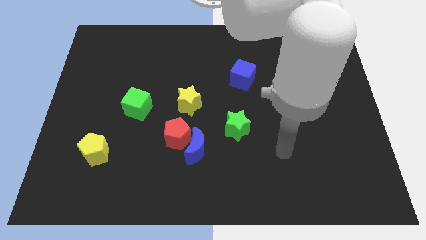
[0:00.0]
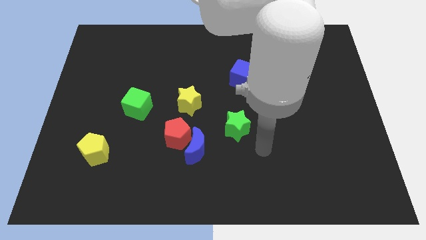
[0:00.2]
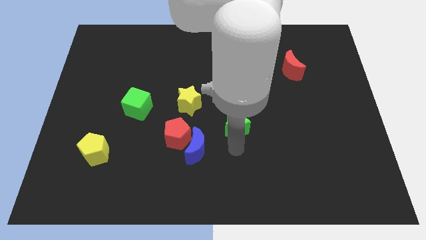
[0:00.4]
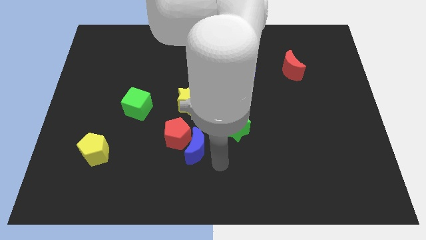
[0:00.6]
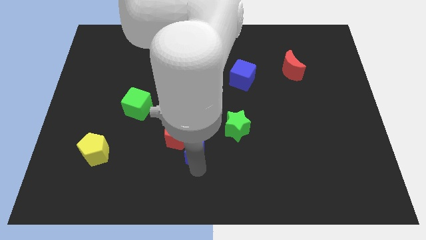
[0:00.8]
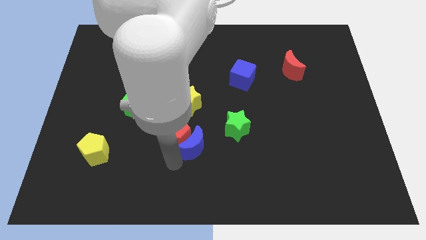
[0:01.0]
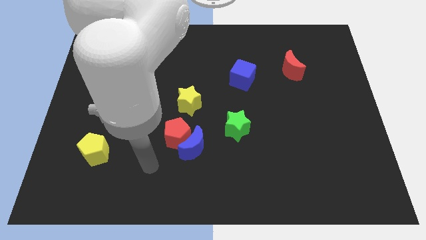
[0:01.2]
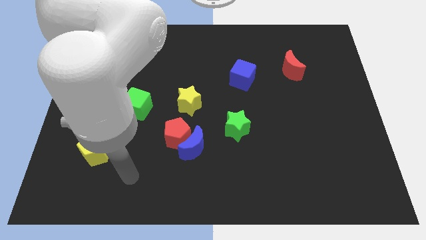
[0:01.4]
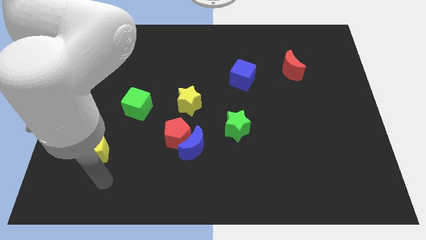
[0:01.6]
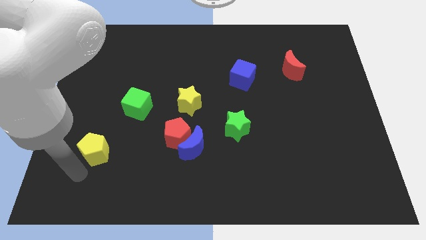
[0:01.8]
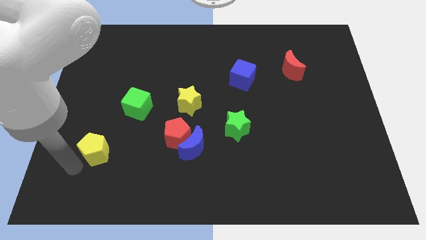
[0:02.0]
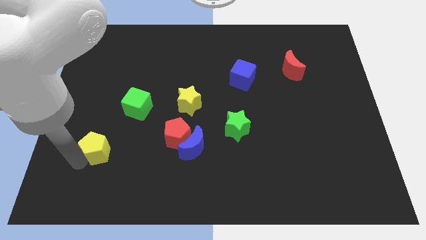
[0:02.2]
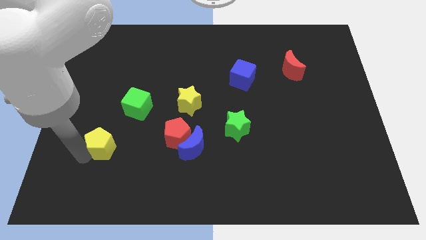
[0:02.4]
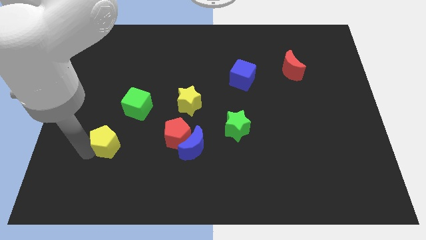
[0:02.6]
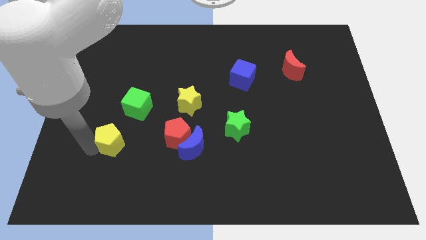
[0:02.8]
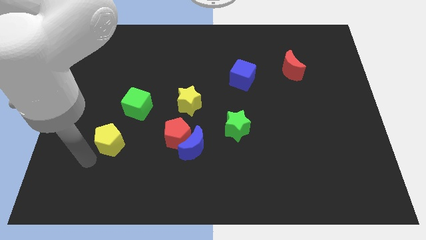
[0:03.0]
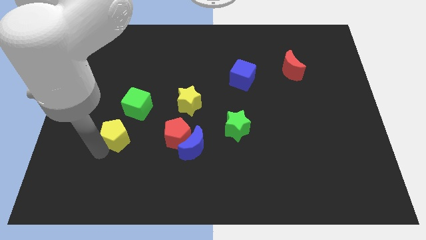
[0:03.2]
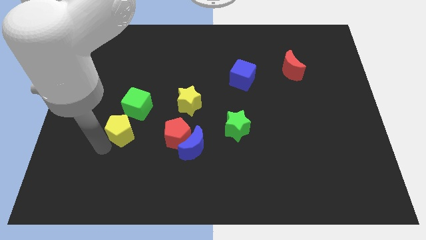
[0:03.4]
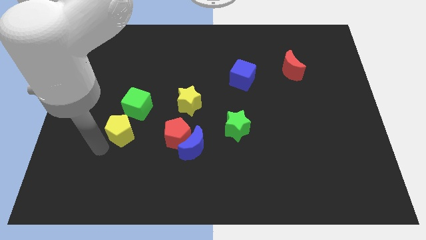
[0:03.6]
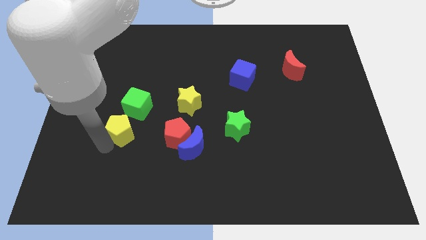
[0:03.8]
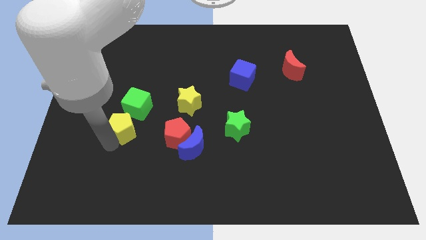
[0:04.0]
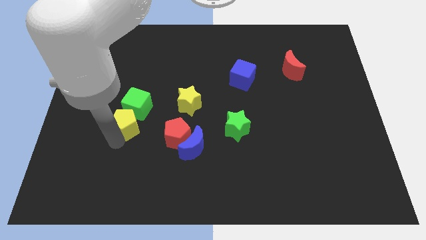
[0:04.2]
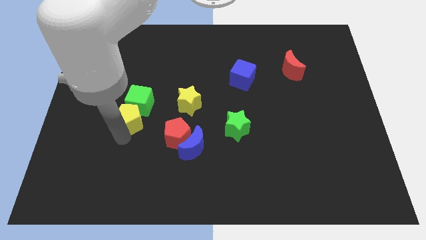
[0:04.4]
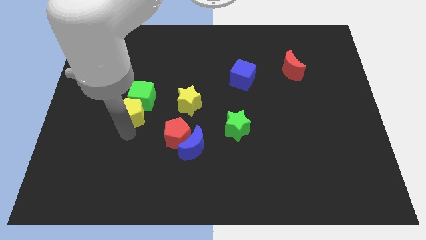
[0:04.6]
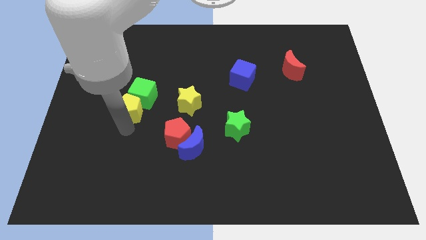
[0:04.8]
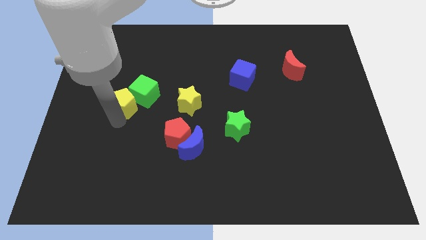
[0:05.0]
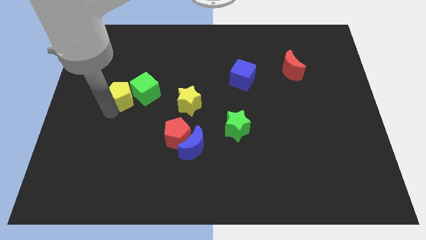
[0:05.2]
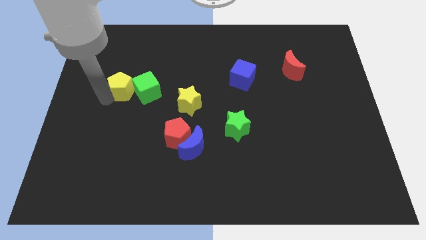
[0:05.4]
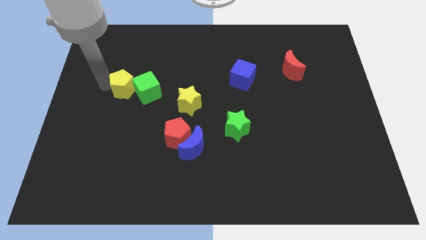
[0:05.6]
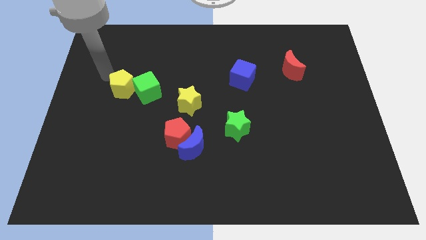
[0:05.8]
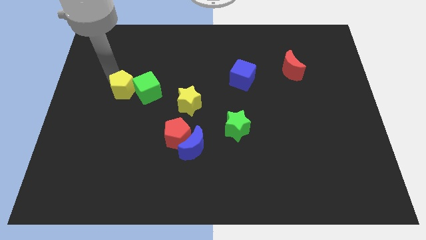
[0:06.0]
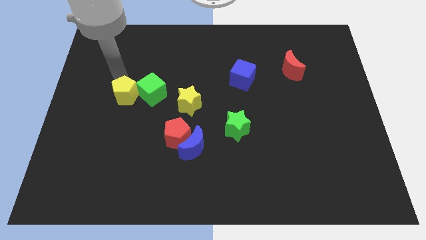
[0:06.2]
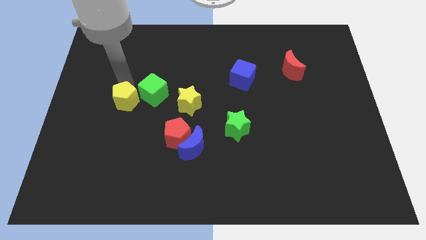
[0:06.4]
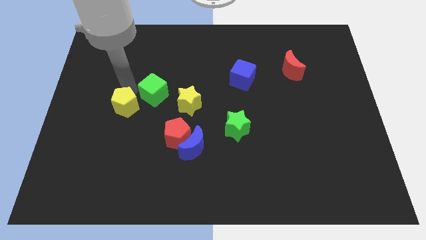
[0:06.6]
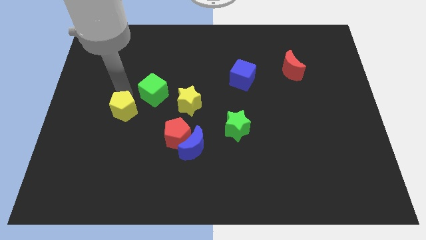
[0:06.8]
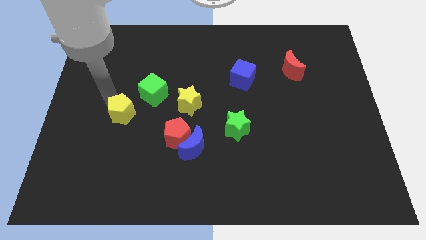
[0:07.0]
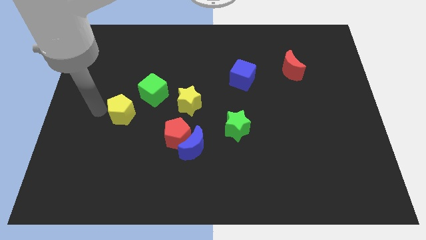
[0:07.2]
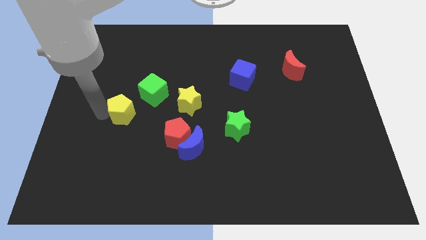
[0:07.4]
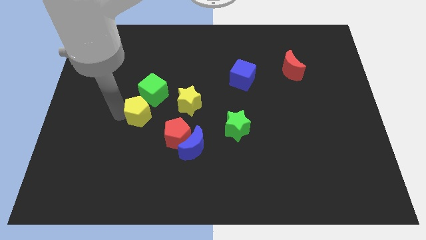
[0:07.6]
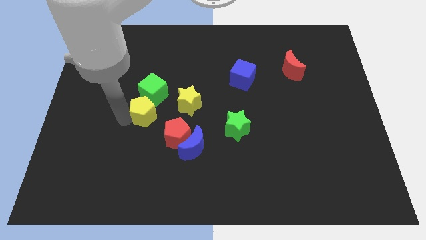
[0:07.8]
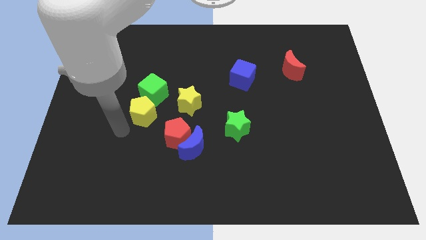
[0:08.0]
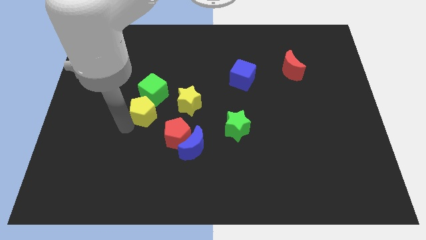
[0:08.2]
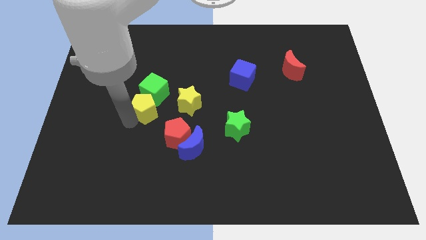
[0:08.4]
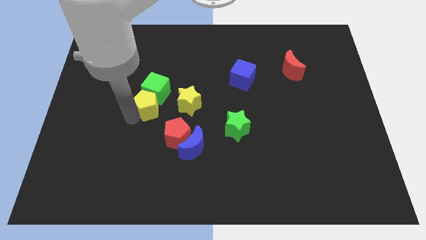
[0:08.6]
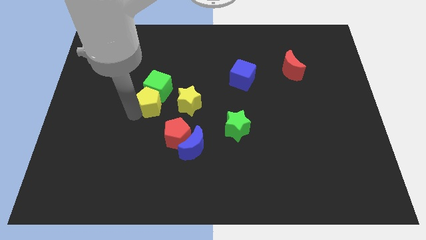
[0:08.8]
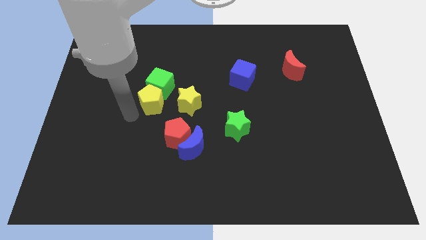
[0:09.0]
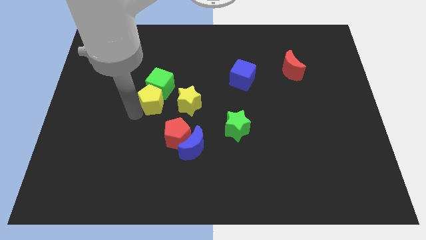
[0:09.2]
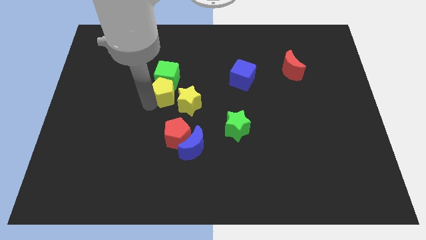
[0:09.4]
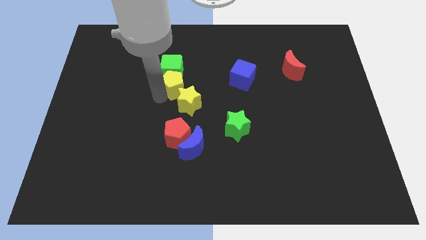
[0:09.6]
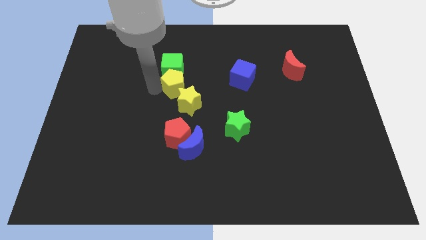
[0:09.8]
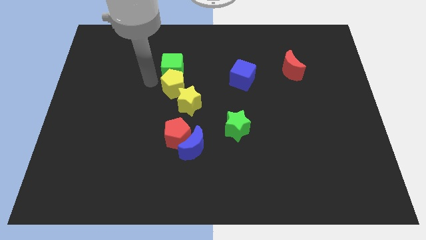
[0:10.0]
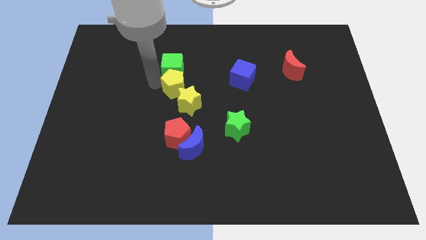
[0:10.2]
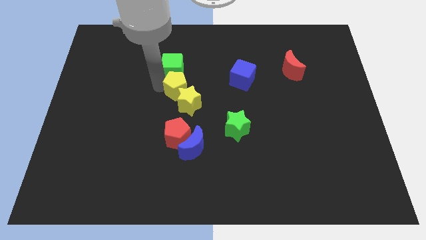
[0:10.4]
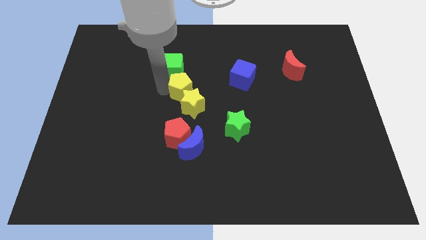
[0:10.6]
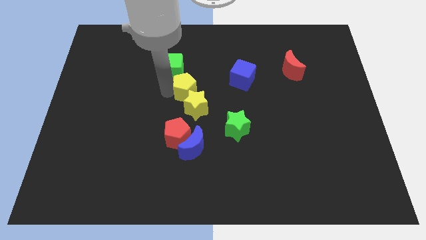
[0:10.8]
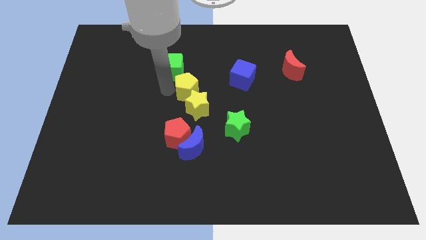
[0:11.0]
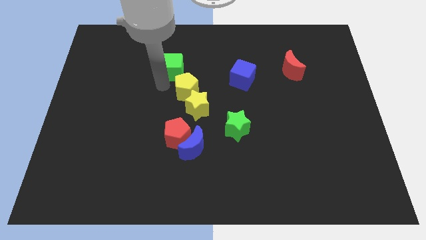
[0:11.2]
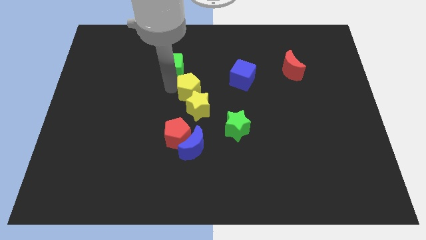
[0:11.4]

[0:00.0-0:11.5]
push the yellow pentagon to the top side of the blue moon

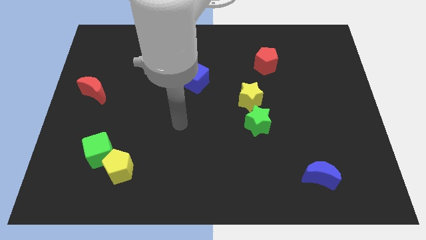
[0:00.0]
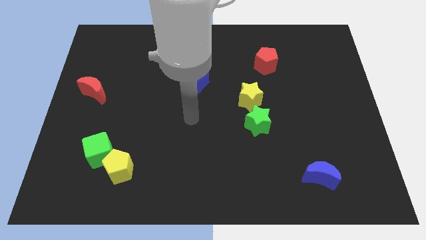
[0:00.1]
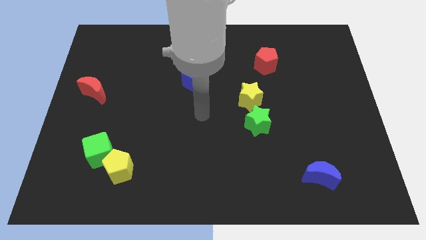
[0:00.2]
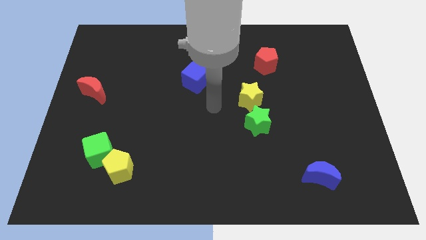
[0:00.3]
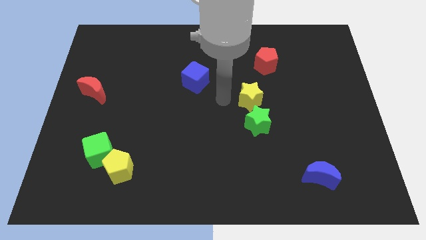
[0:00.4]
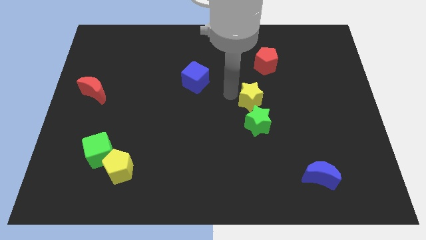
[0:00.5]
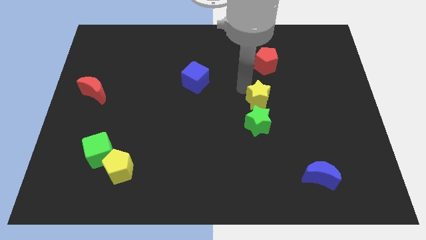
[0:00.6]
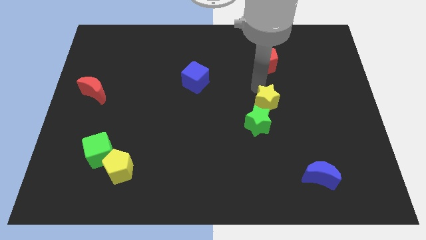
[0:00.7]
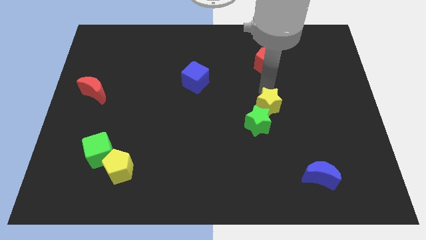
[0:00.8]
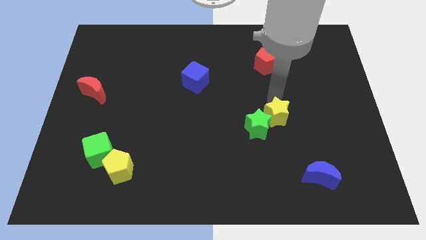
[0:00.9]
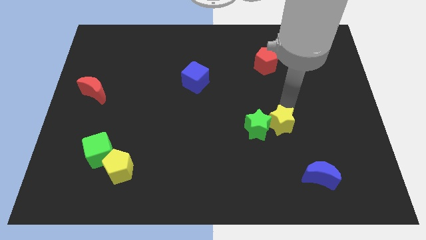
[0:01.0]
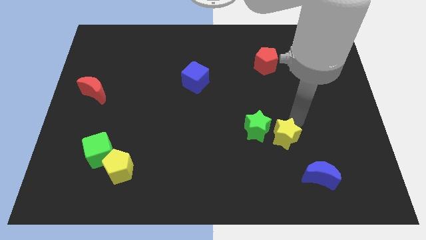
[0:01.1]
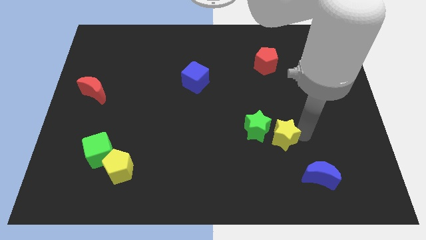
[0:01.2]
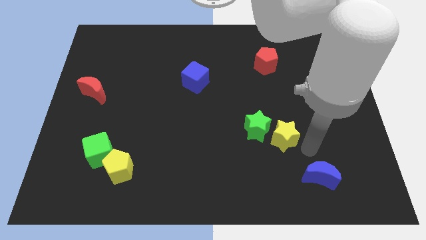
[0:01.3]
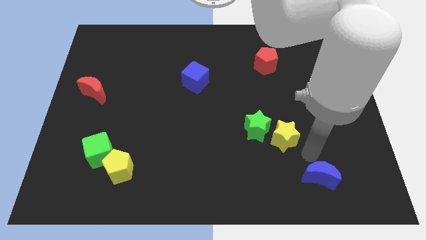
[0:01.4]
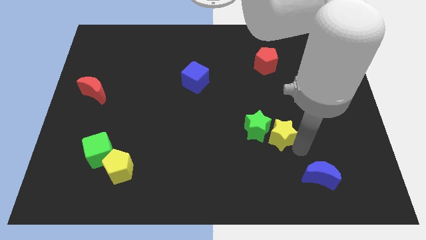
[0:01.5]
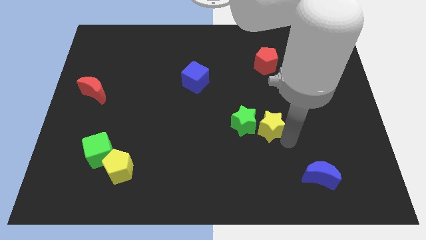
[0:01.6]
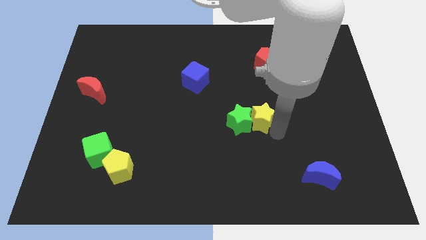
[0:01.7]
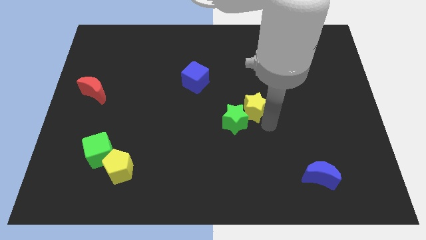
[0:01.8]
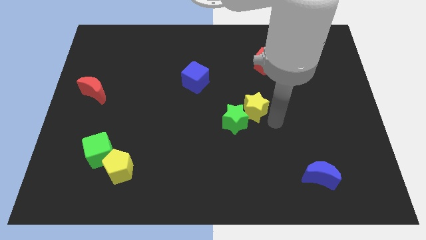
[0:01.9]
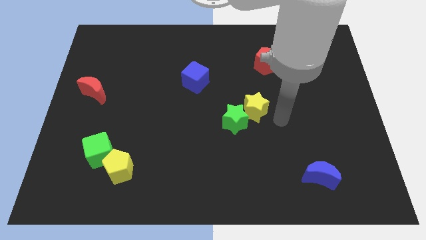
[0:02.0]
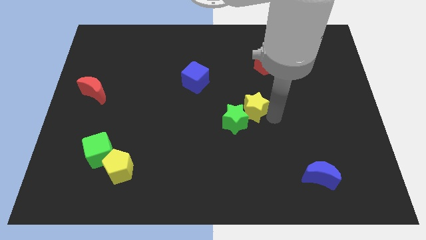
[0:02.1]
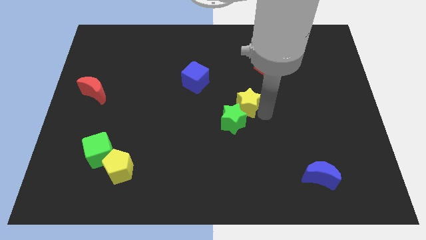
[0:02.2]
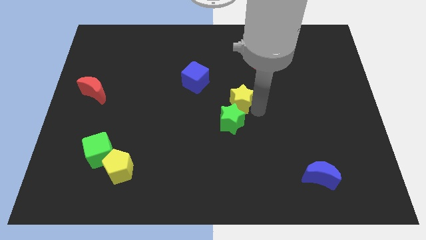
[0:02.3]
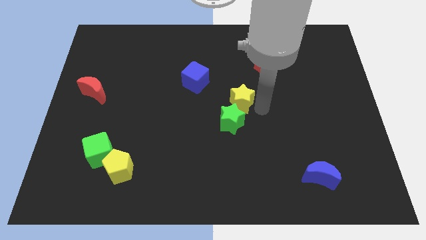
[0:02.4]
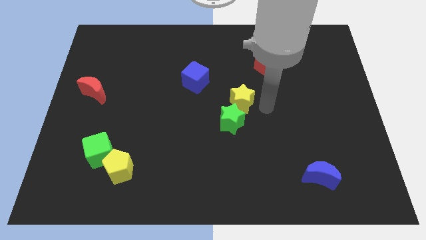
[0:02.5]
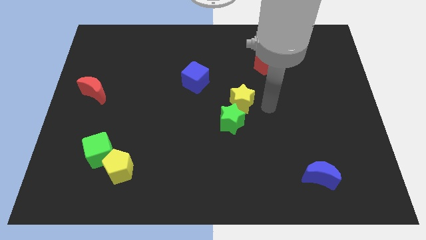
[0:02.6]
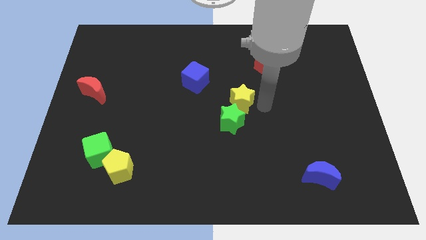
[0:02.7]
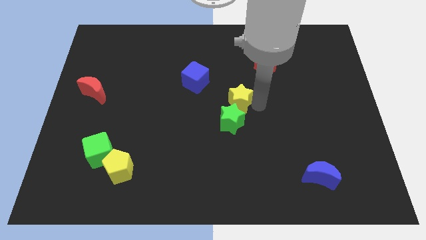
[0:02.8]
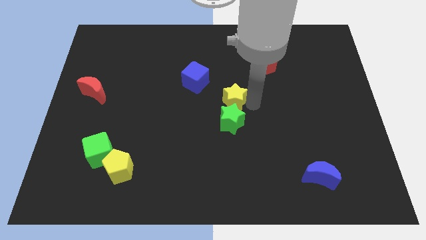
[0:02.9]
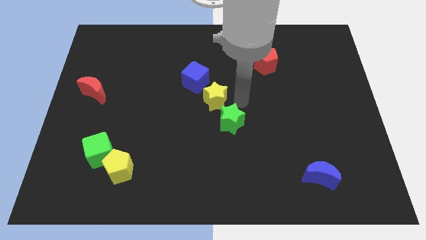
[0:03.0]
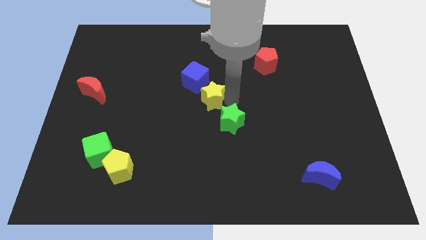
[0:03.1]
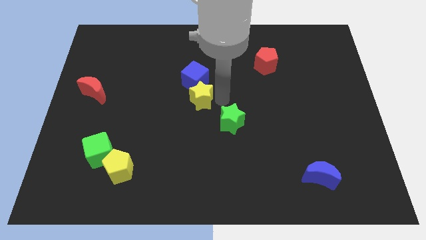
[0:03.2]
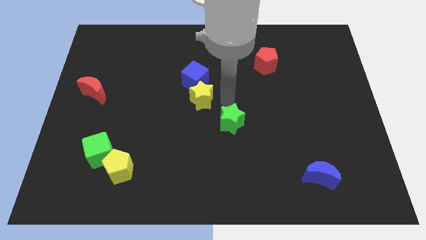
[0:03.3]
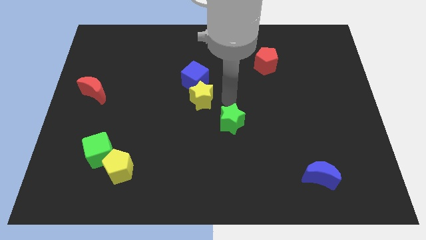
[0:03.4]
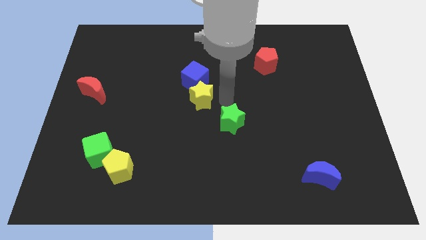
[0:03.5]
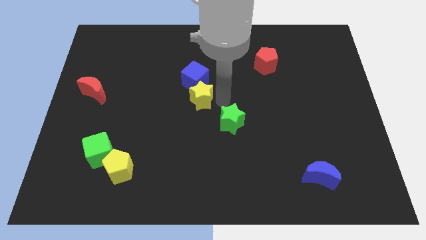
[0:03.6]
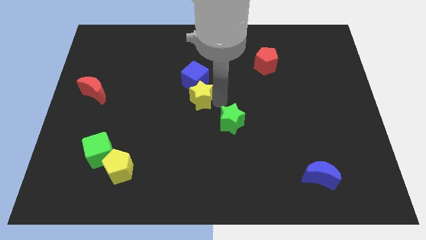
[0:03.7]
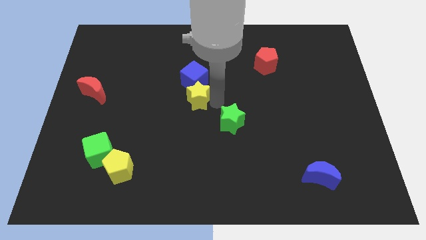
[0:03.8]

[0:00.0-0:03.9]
move the yellow star diagonally down and to the left of the blue cube
